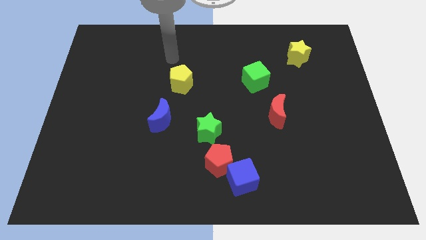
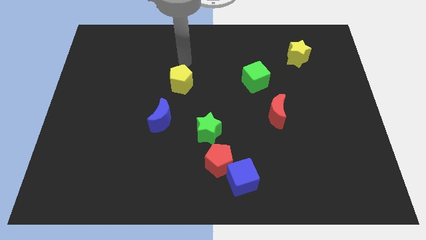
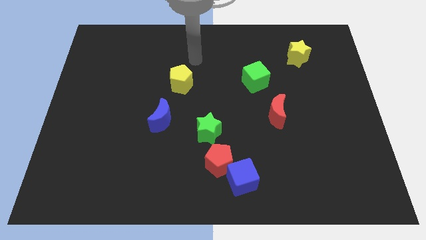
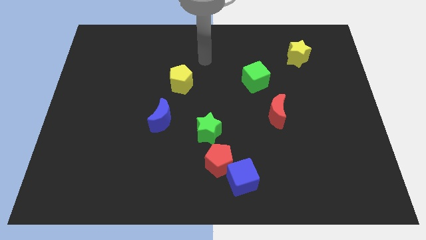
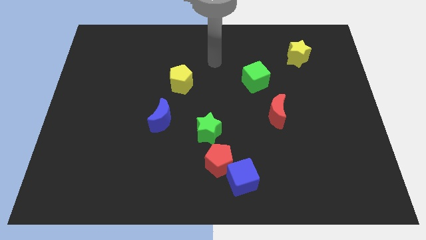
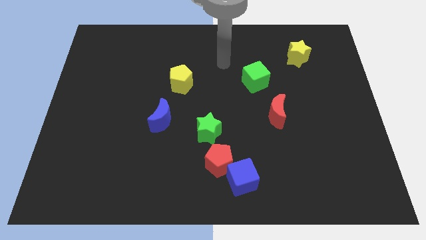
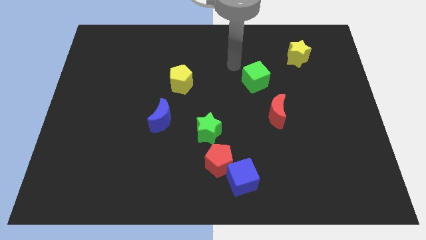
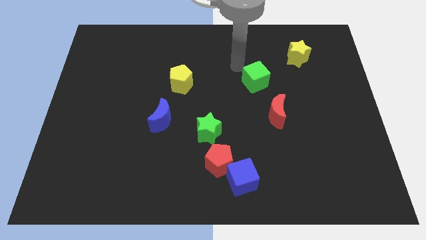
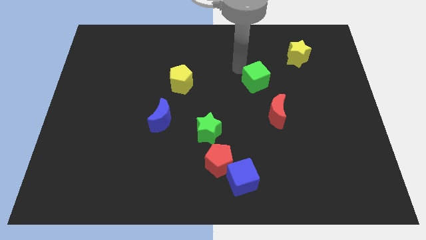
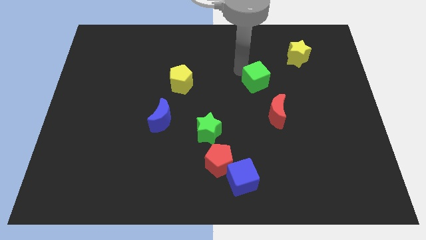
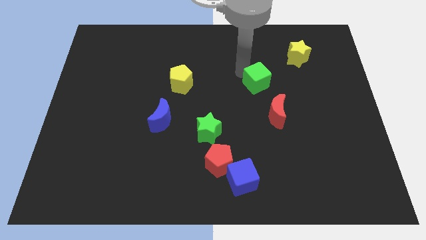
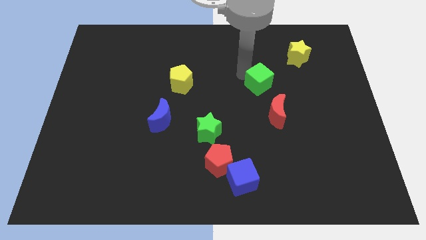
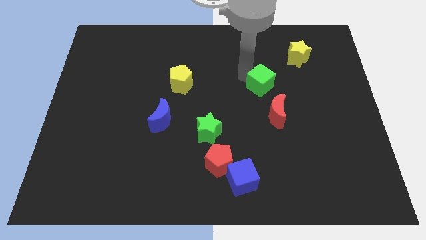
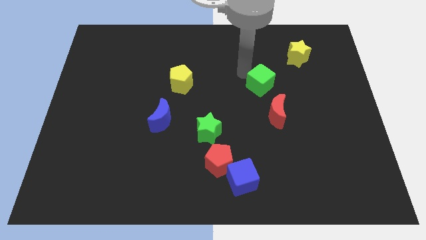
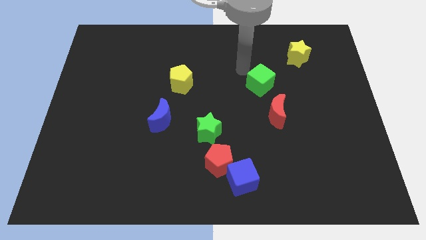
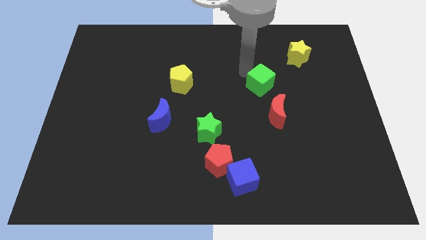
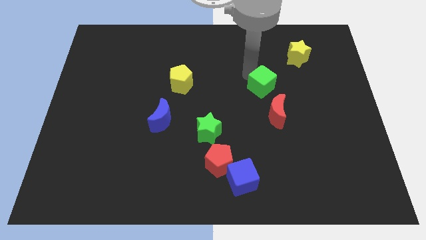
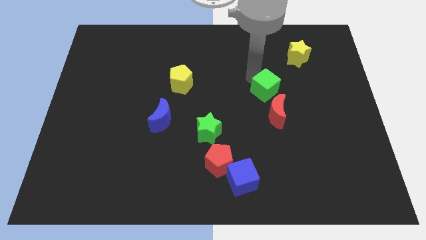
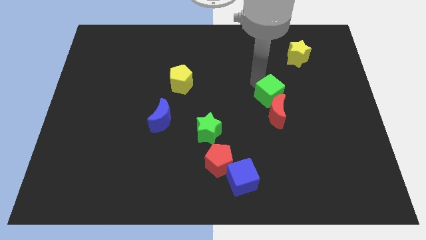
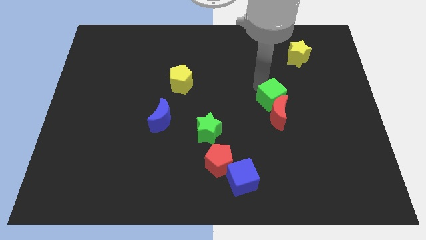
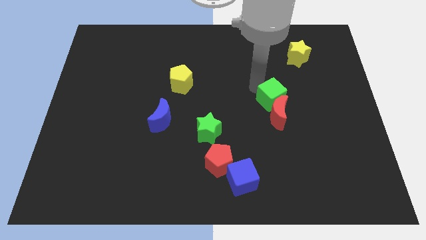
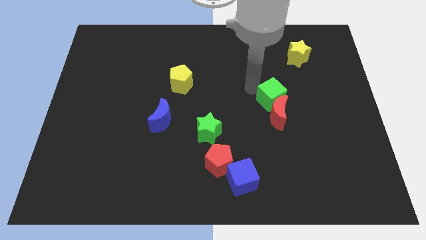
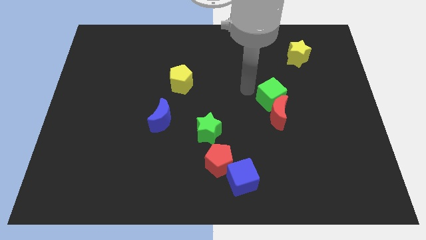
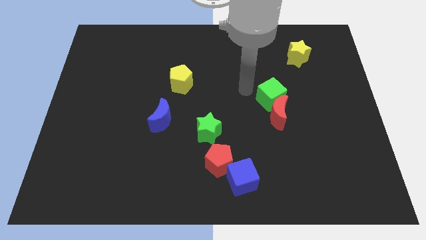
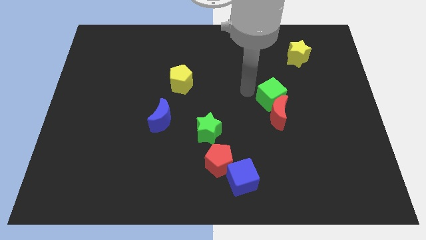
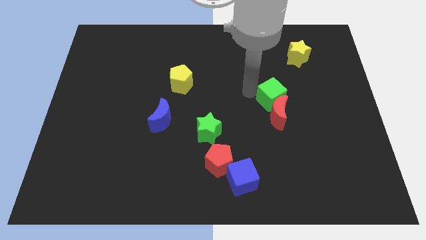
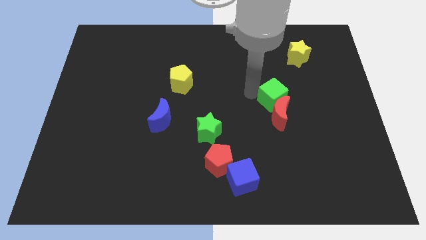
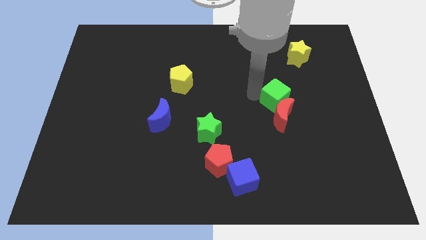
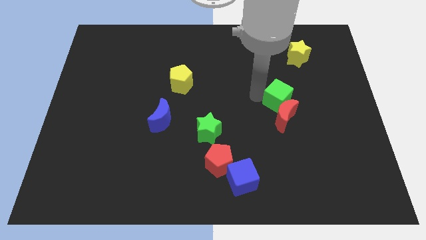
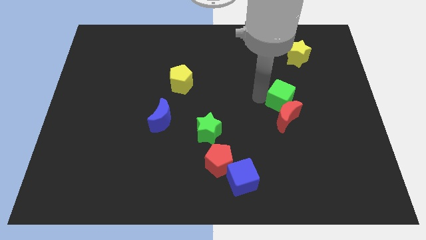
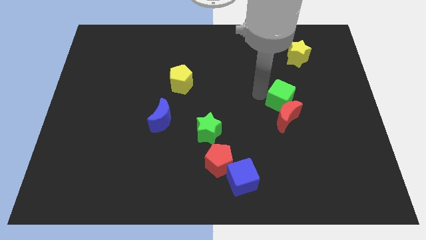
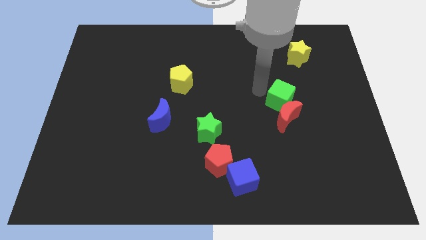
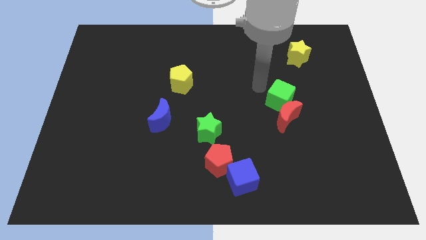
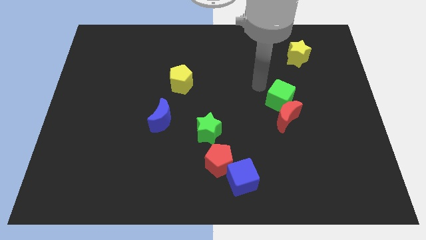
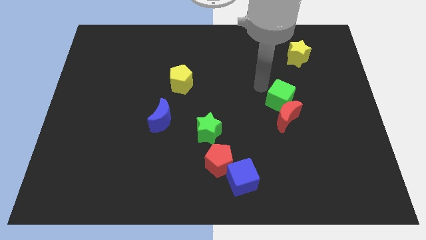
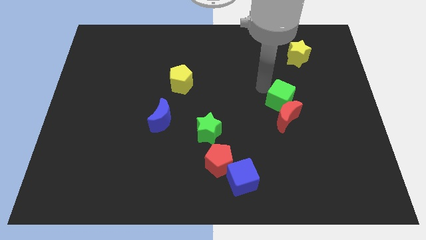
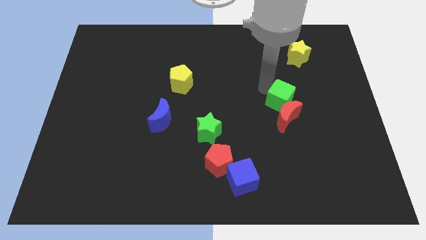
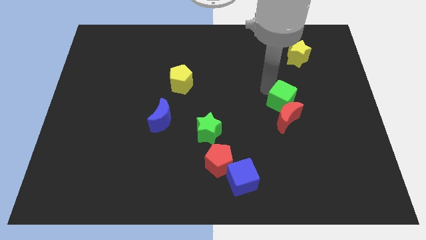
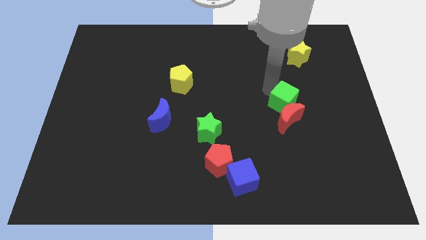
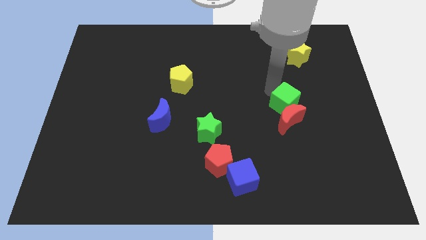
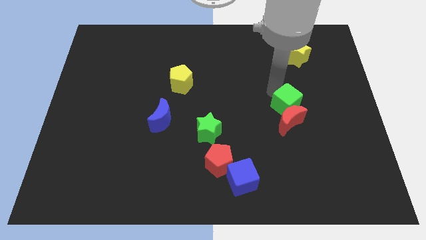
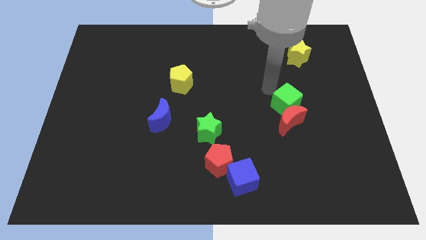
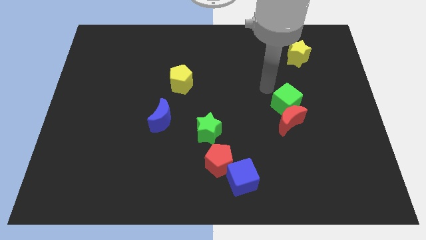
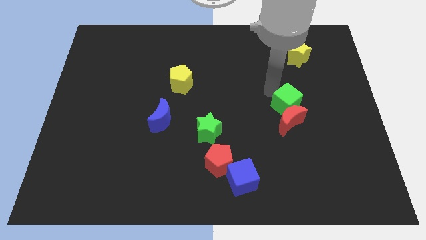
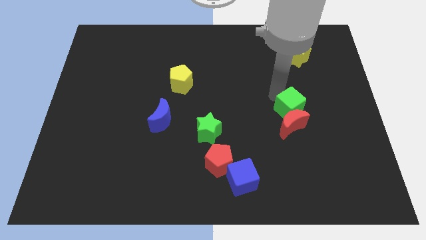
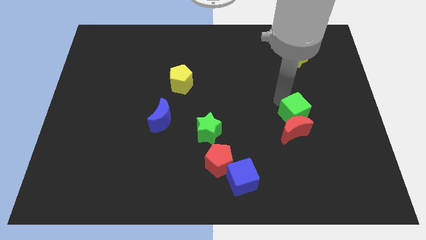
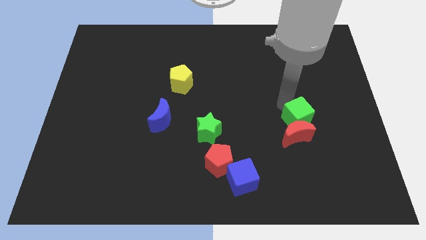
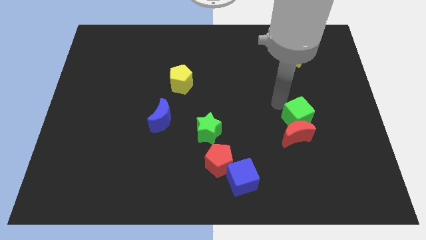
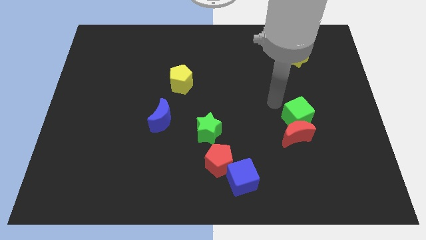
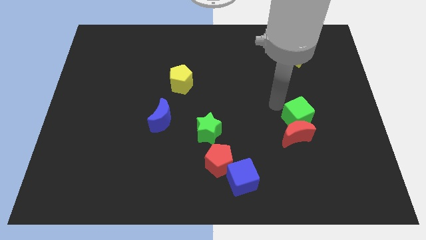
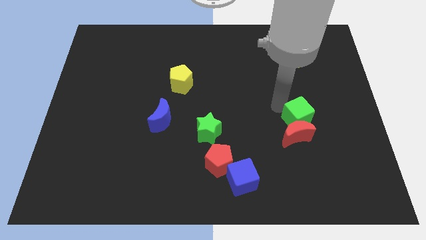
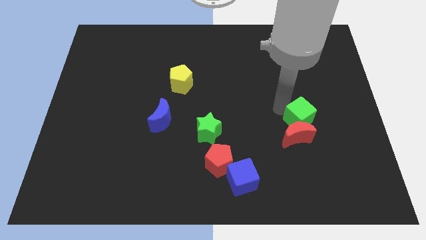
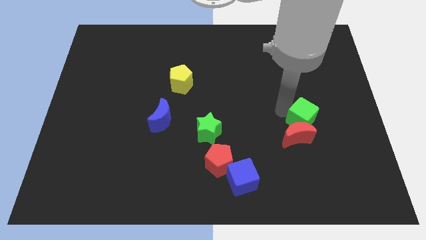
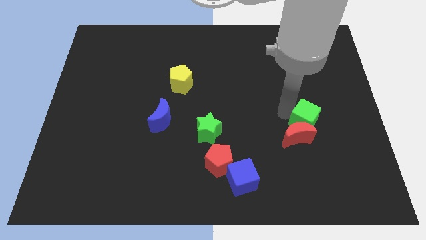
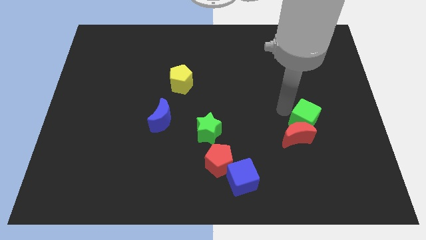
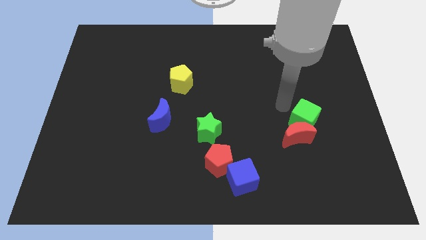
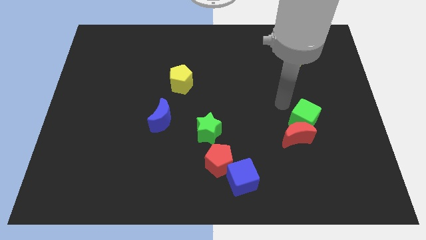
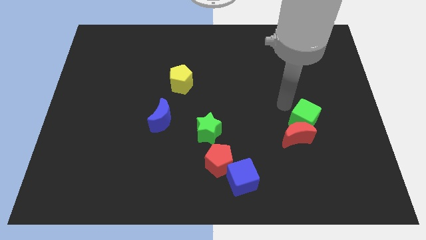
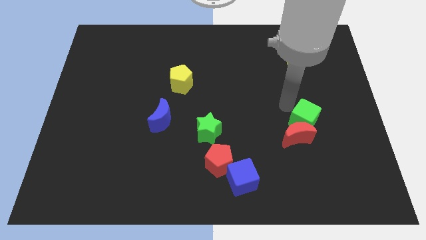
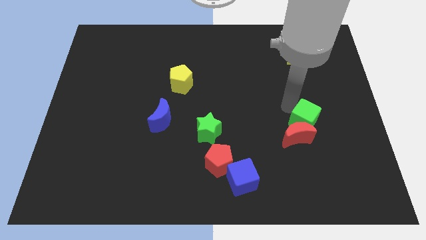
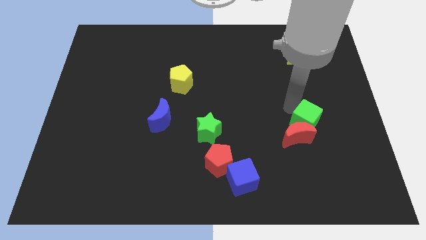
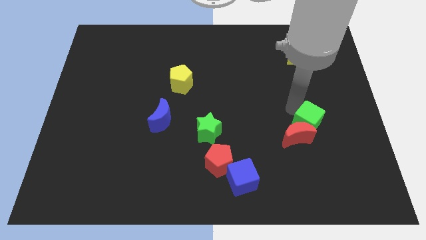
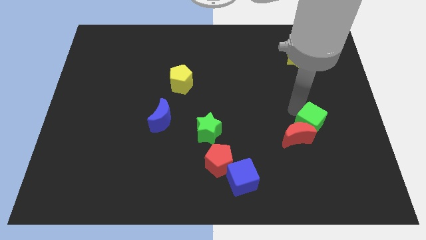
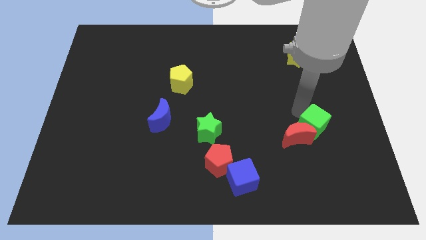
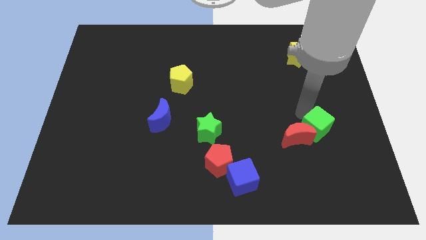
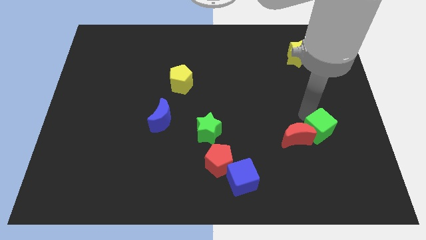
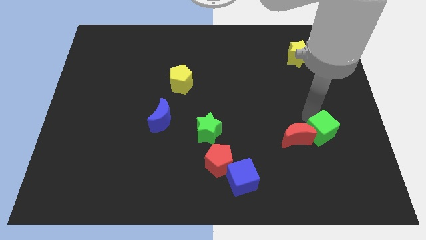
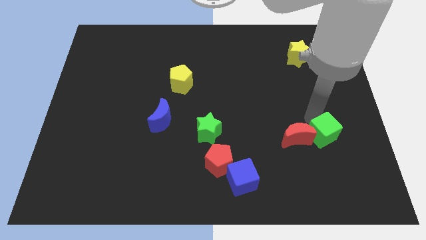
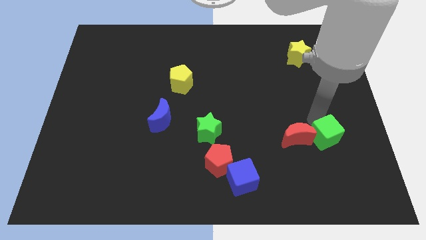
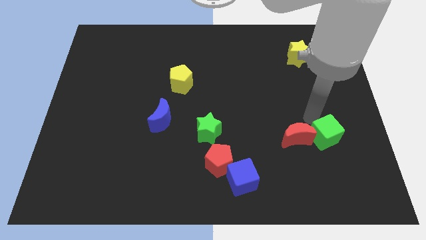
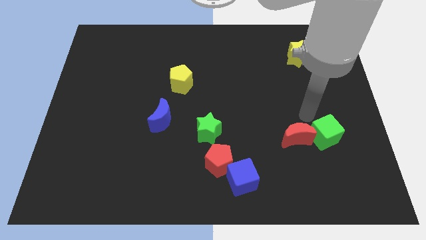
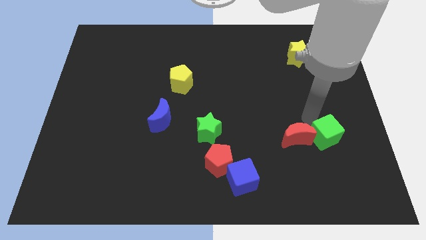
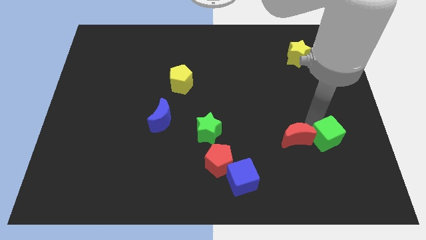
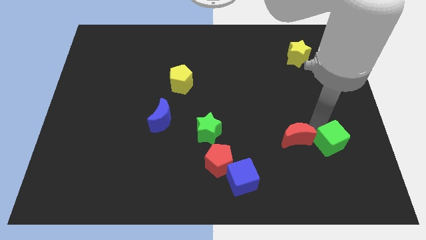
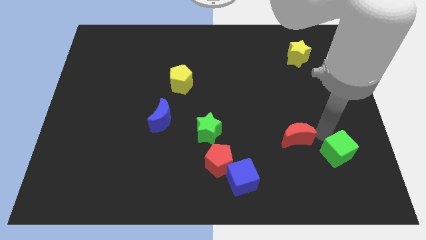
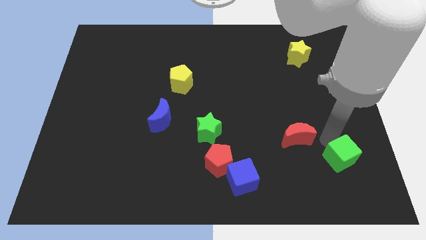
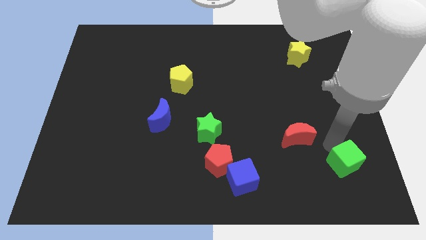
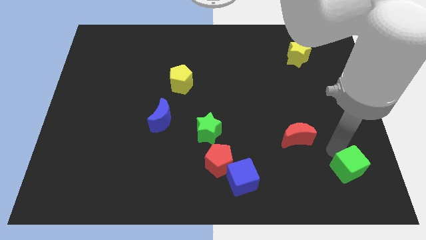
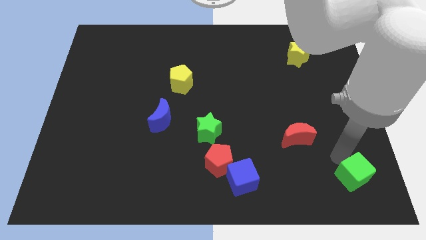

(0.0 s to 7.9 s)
move the green cube to the bottom right corner
